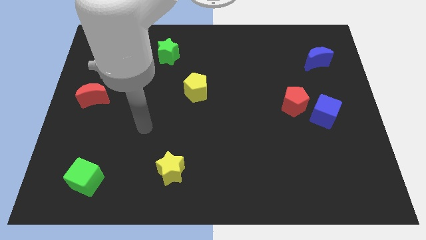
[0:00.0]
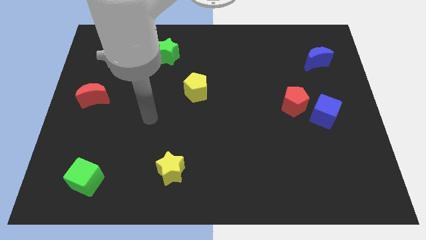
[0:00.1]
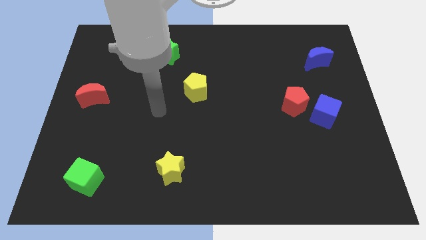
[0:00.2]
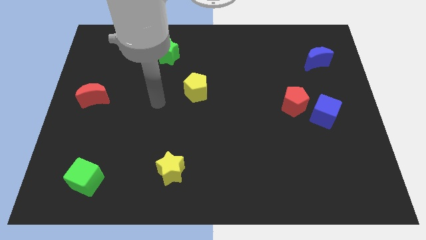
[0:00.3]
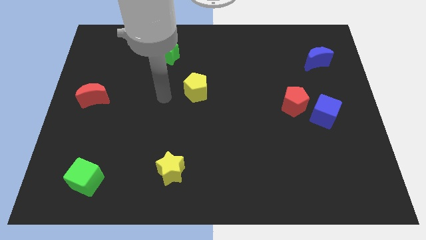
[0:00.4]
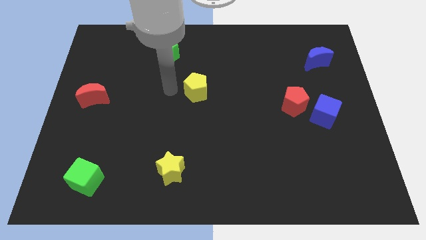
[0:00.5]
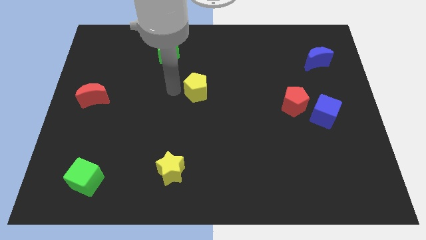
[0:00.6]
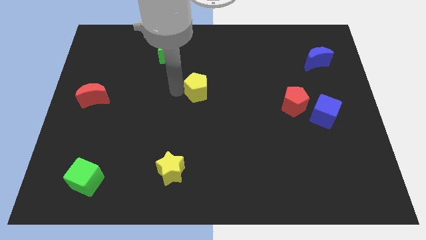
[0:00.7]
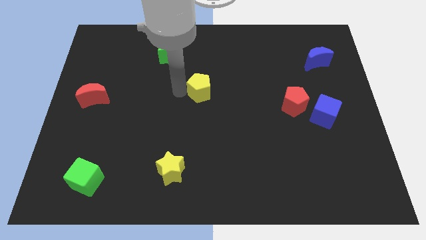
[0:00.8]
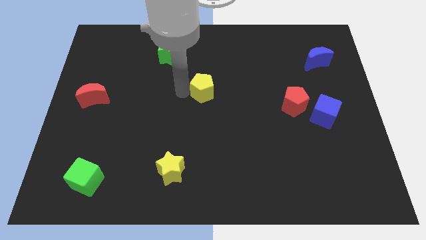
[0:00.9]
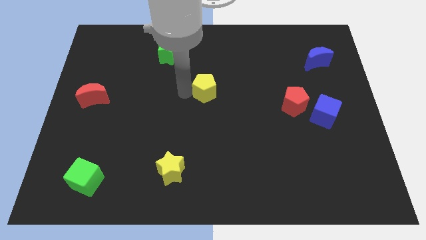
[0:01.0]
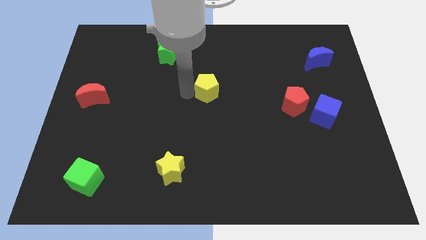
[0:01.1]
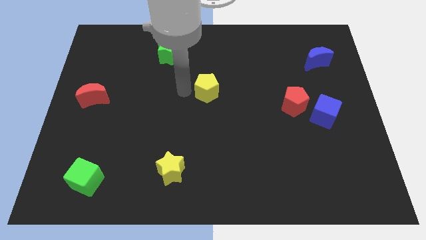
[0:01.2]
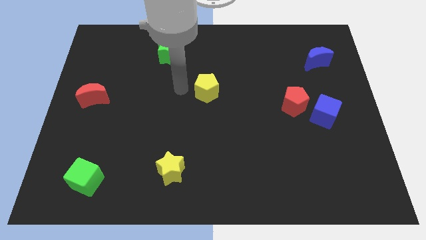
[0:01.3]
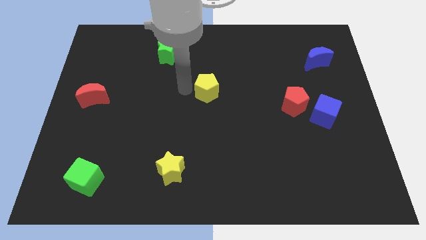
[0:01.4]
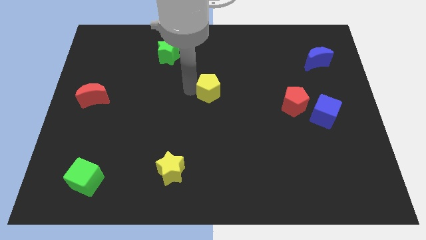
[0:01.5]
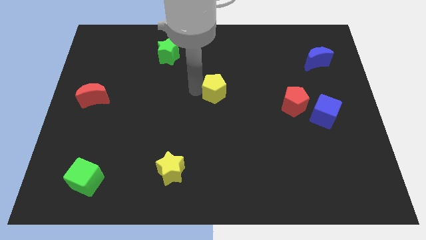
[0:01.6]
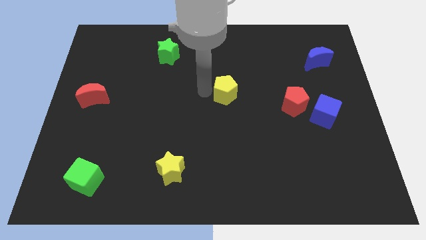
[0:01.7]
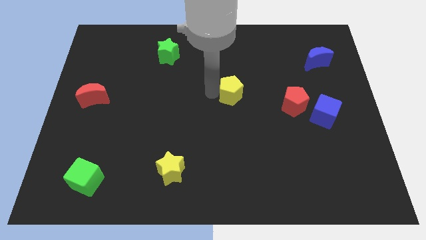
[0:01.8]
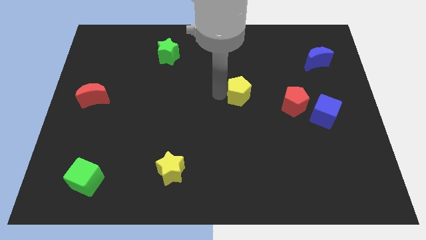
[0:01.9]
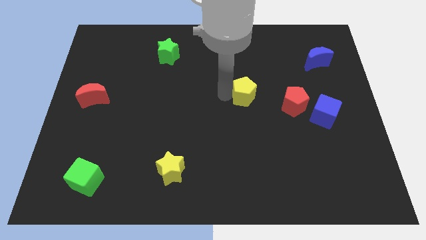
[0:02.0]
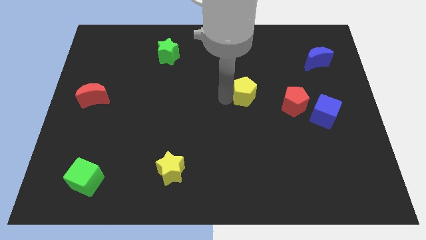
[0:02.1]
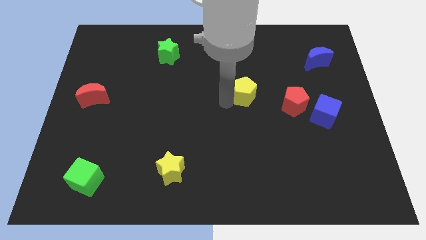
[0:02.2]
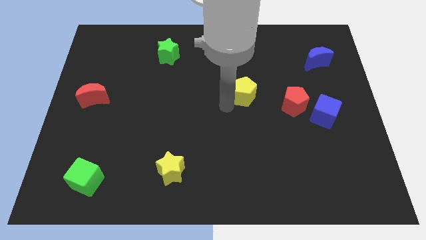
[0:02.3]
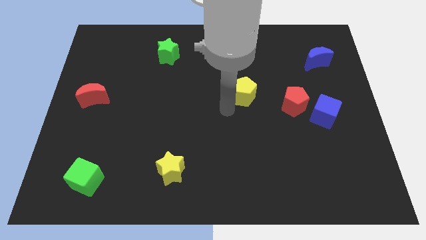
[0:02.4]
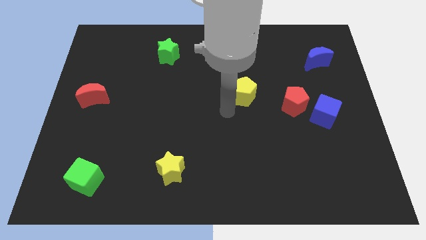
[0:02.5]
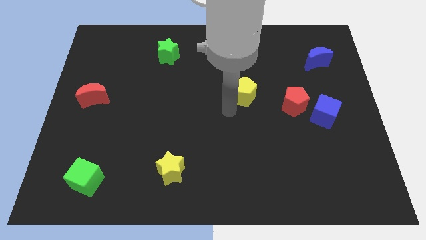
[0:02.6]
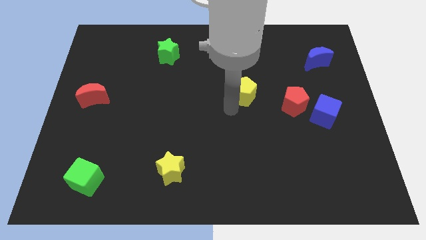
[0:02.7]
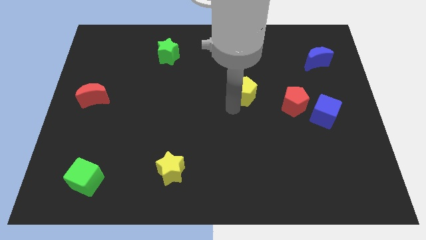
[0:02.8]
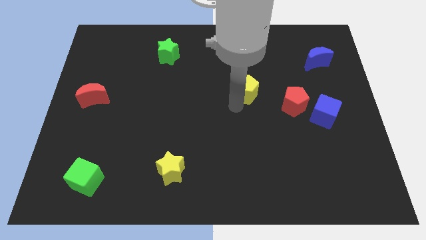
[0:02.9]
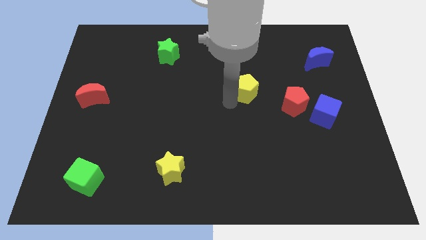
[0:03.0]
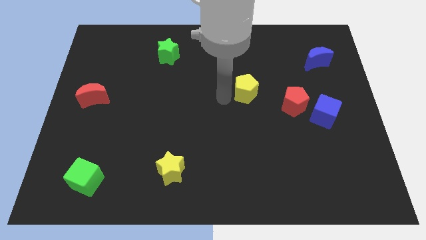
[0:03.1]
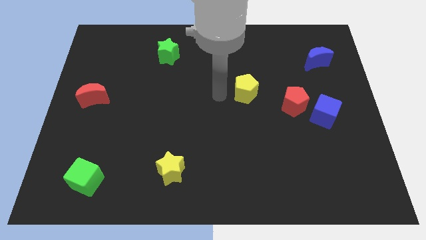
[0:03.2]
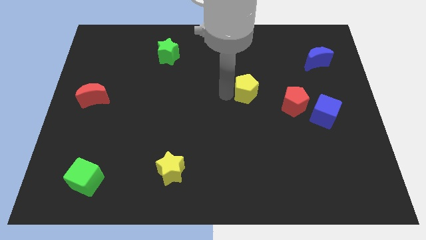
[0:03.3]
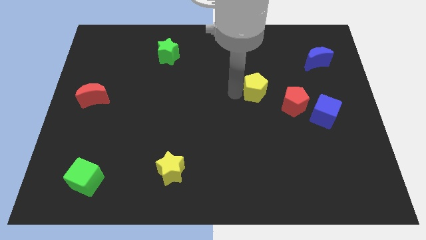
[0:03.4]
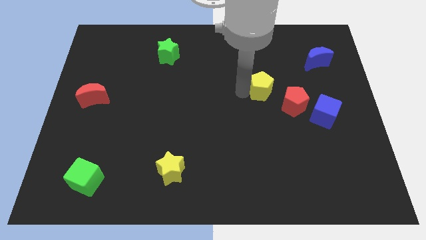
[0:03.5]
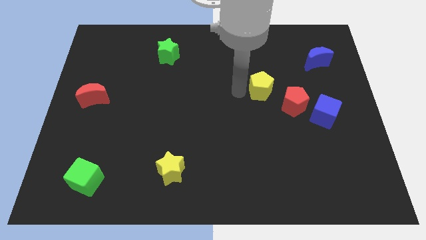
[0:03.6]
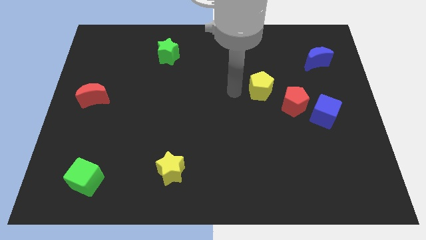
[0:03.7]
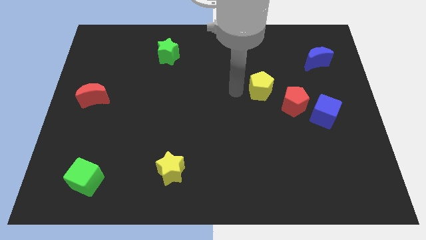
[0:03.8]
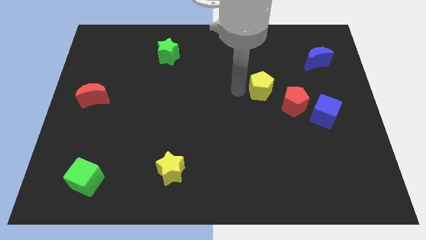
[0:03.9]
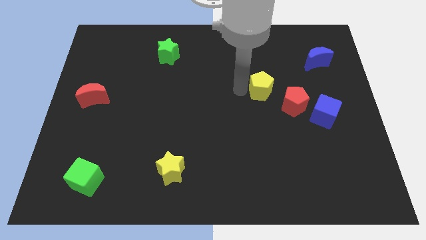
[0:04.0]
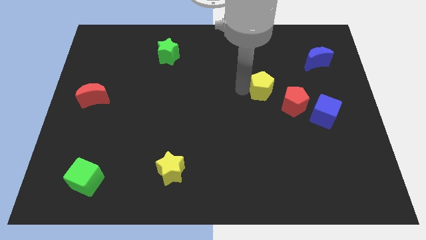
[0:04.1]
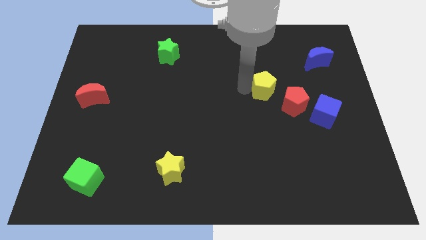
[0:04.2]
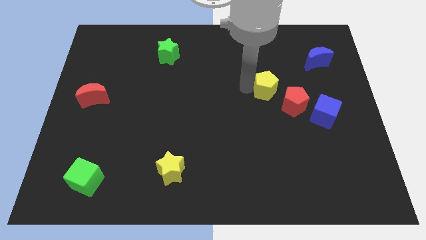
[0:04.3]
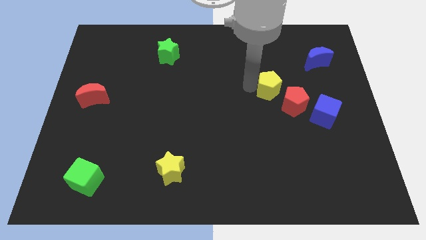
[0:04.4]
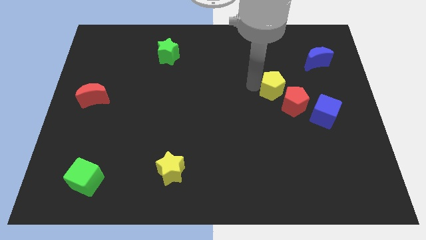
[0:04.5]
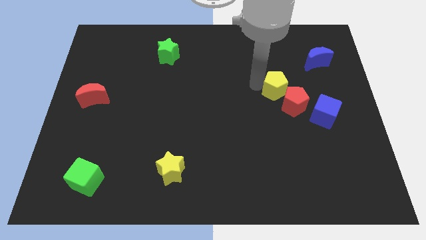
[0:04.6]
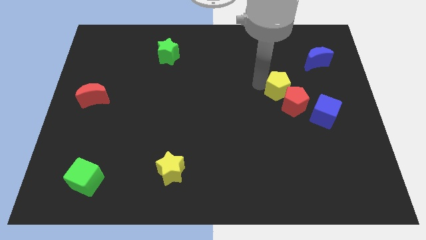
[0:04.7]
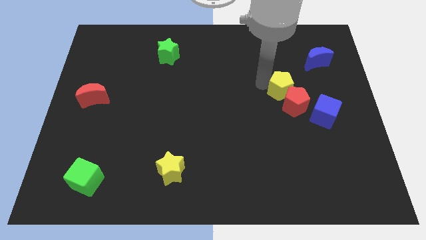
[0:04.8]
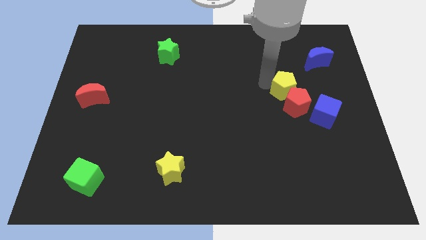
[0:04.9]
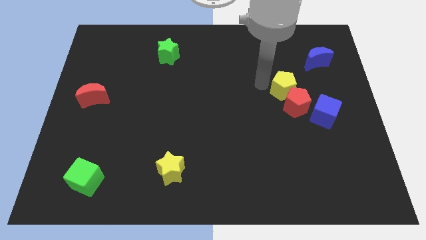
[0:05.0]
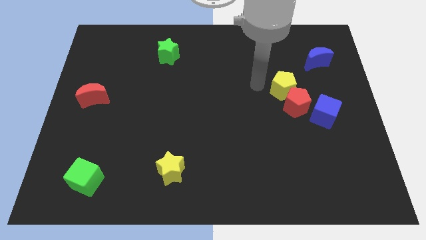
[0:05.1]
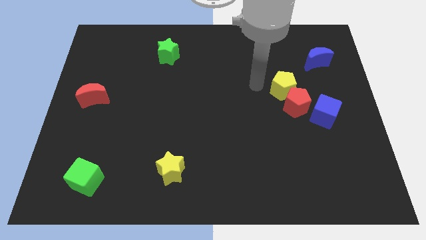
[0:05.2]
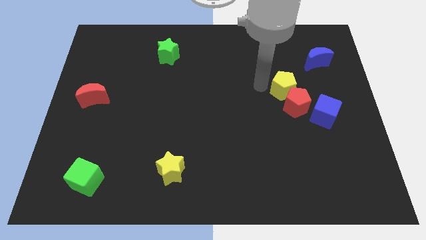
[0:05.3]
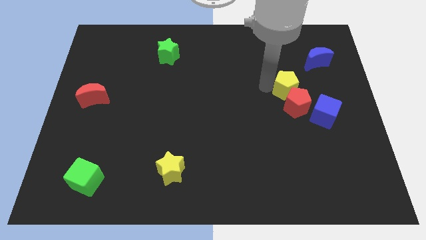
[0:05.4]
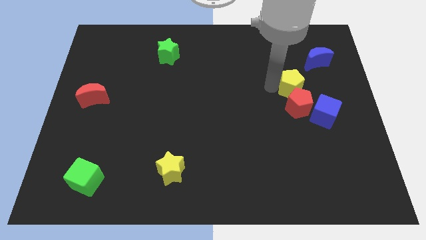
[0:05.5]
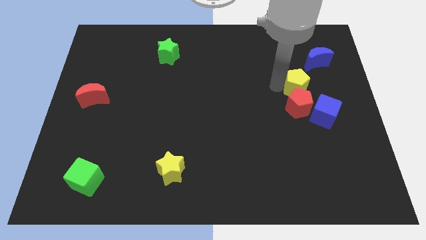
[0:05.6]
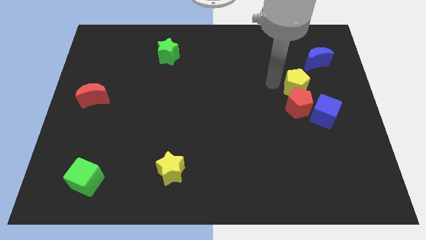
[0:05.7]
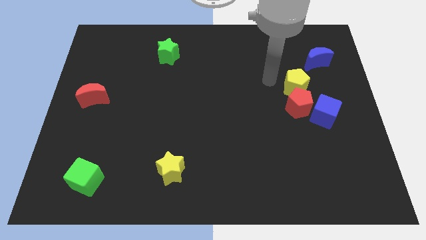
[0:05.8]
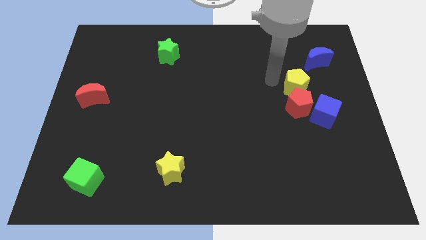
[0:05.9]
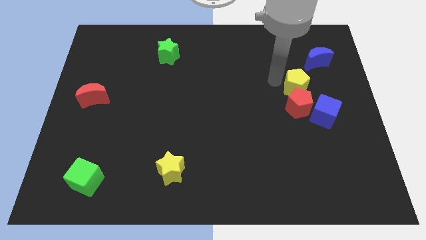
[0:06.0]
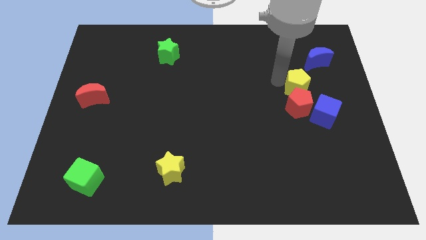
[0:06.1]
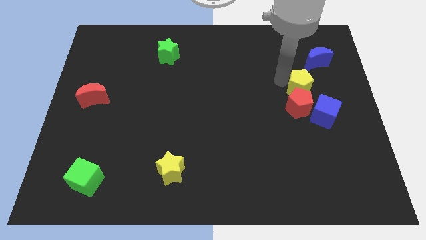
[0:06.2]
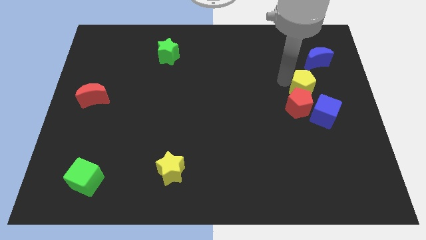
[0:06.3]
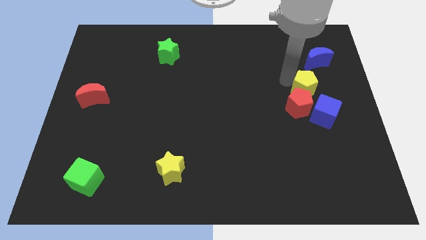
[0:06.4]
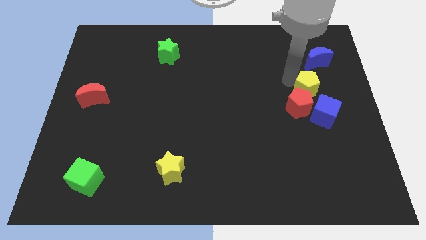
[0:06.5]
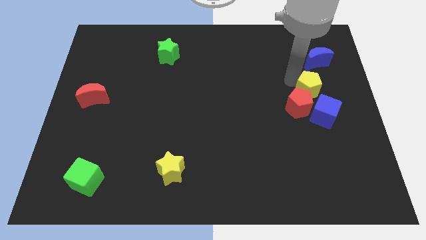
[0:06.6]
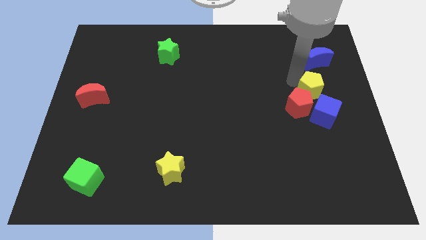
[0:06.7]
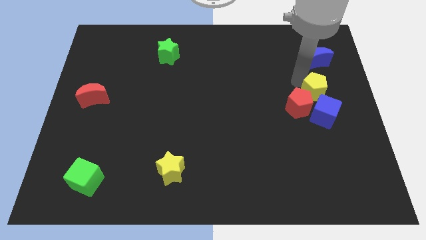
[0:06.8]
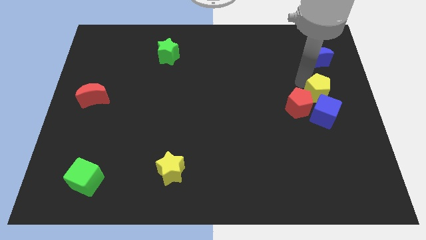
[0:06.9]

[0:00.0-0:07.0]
push the yellow pentagon to the right side of the board
